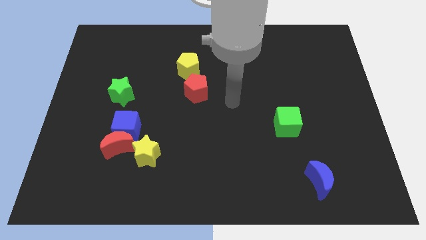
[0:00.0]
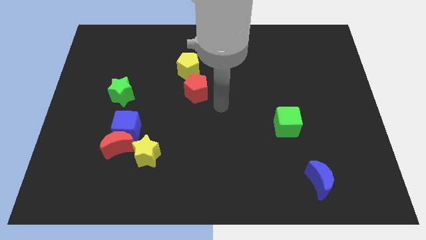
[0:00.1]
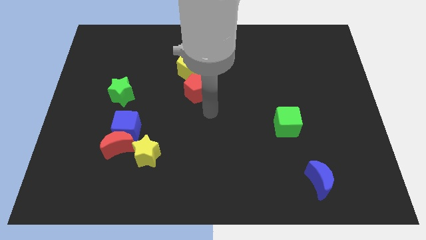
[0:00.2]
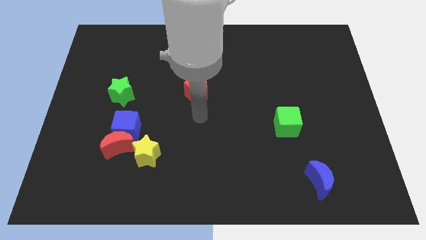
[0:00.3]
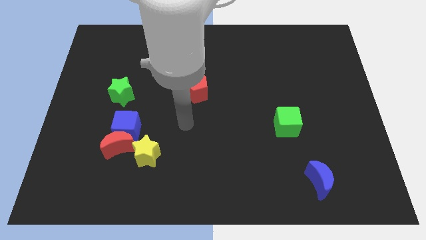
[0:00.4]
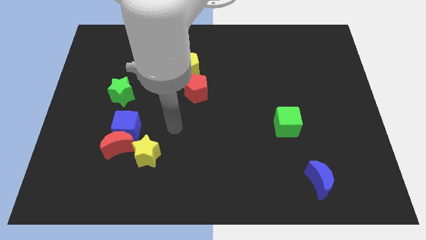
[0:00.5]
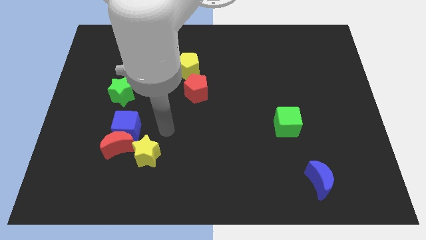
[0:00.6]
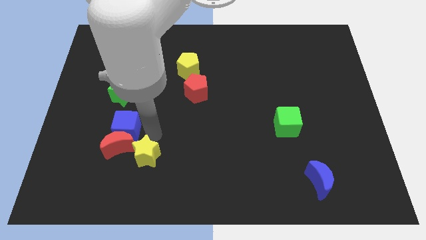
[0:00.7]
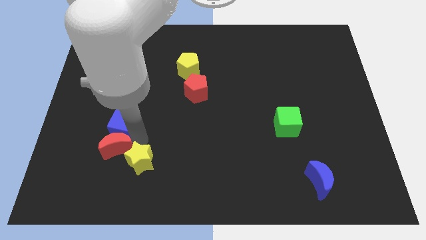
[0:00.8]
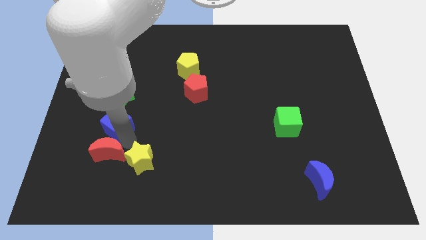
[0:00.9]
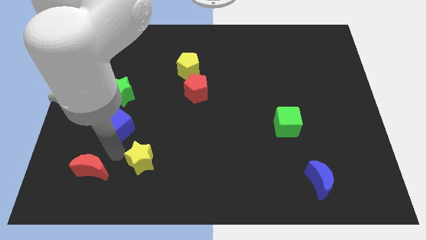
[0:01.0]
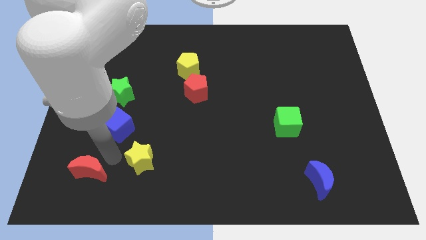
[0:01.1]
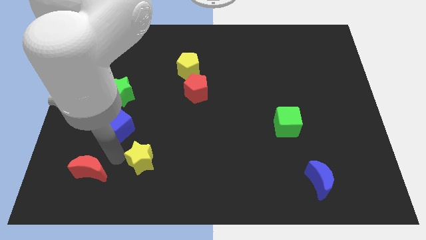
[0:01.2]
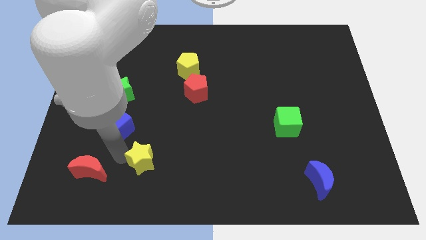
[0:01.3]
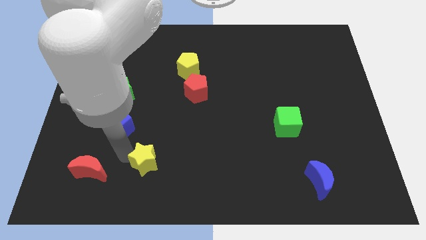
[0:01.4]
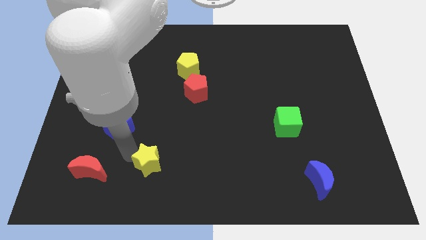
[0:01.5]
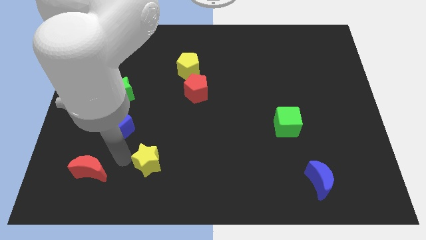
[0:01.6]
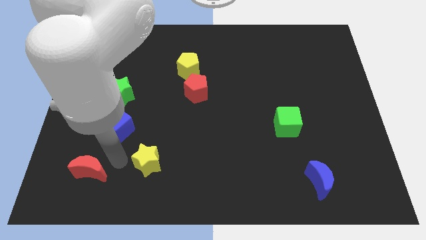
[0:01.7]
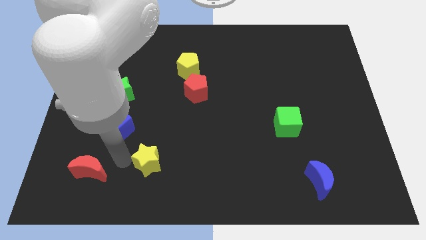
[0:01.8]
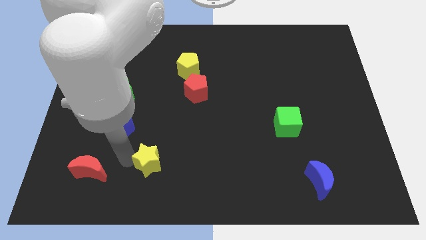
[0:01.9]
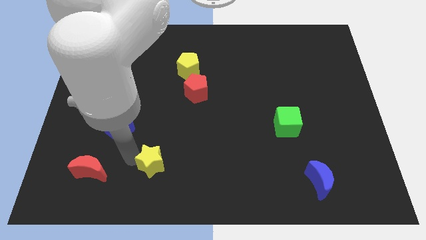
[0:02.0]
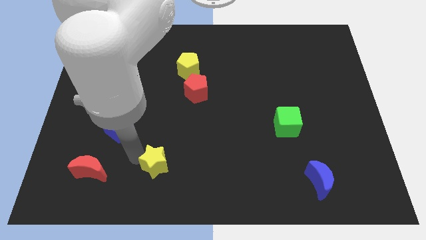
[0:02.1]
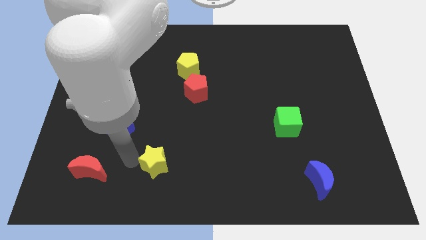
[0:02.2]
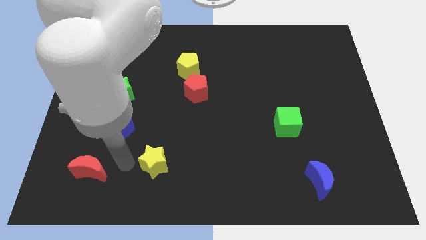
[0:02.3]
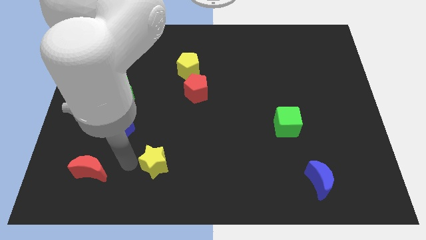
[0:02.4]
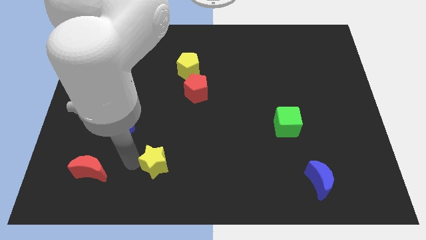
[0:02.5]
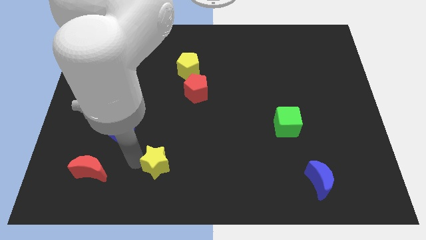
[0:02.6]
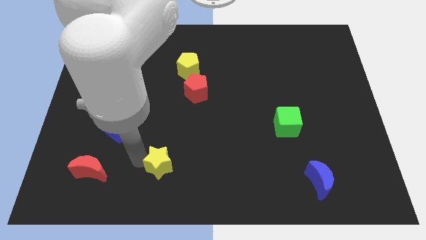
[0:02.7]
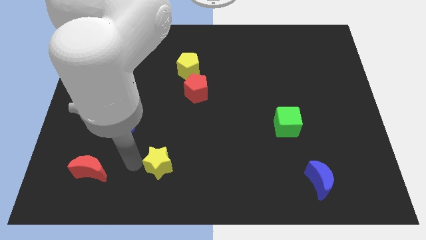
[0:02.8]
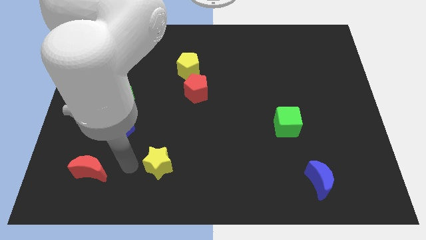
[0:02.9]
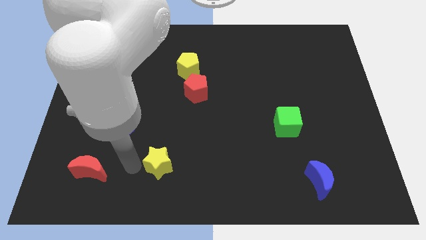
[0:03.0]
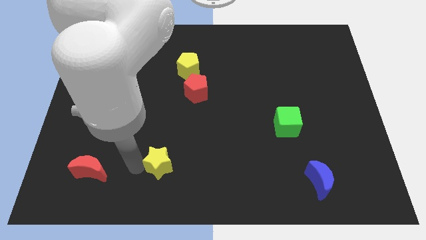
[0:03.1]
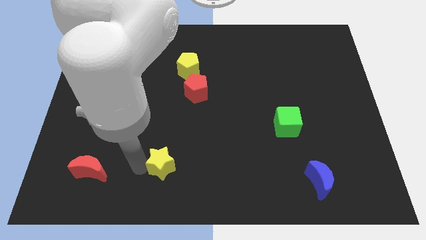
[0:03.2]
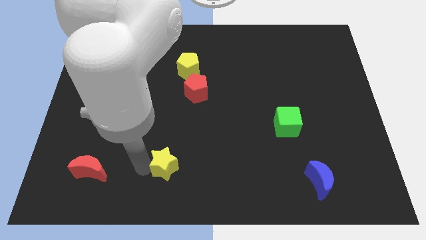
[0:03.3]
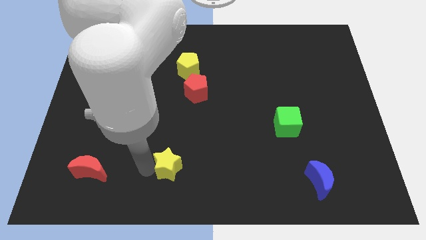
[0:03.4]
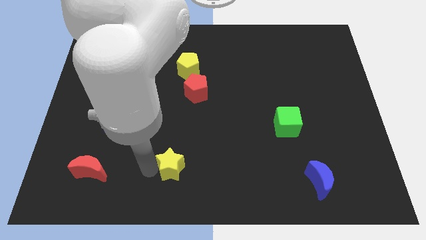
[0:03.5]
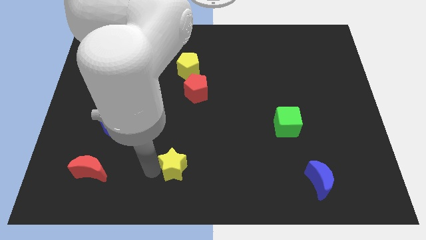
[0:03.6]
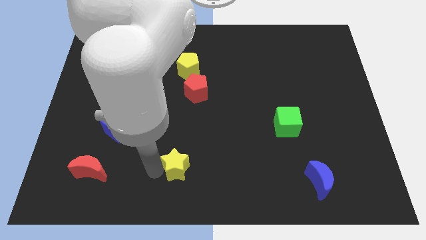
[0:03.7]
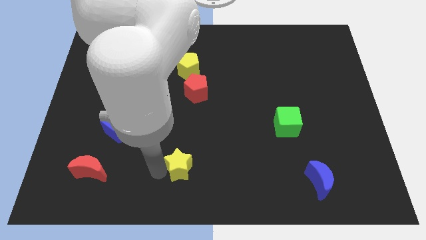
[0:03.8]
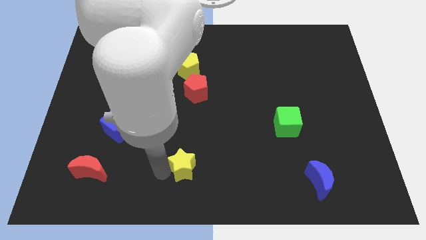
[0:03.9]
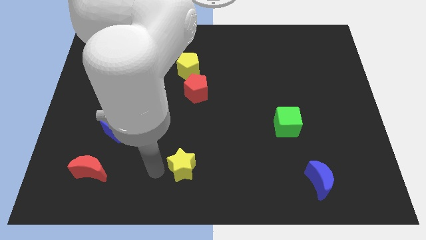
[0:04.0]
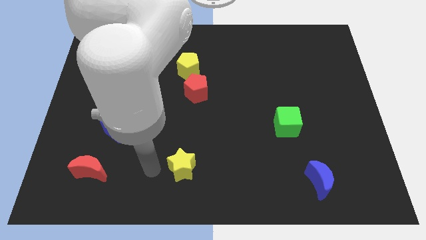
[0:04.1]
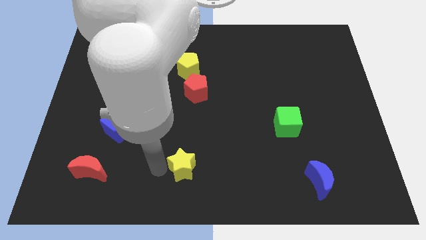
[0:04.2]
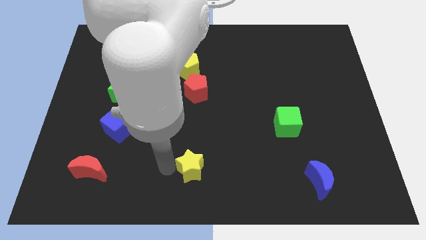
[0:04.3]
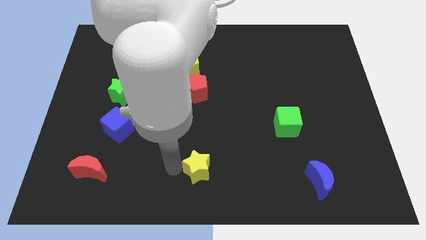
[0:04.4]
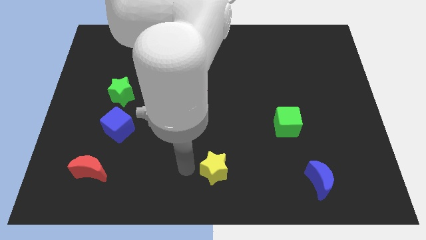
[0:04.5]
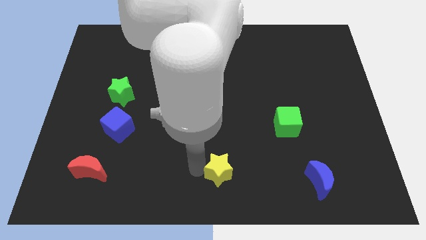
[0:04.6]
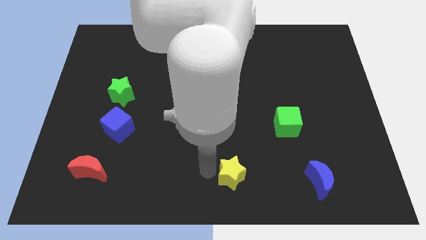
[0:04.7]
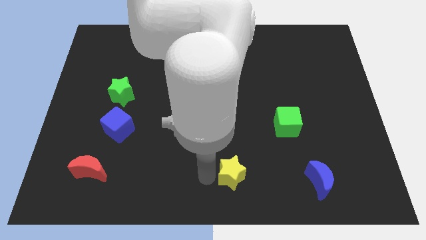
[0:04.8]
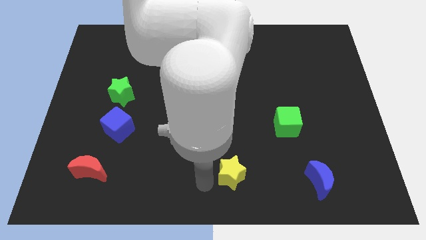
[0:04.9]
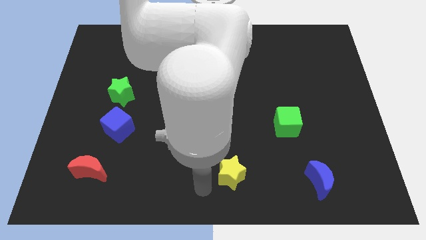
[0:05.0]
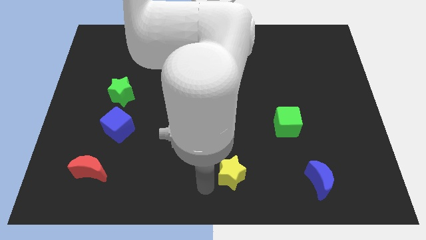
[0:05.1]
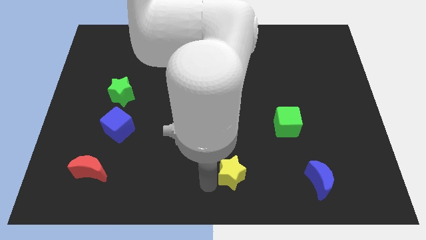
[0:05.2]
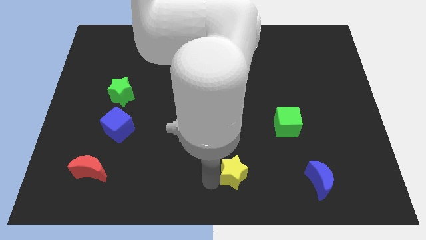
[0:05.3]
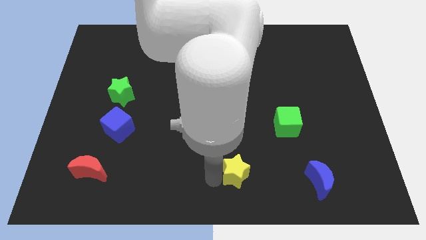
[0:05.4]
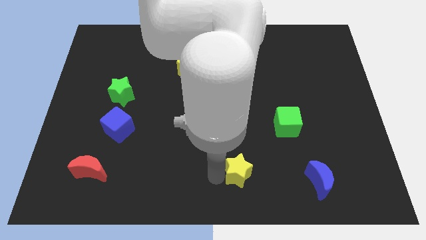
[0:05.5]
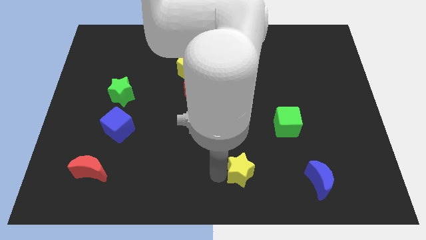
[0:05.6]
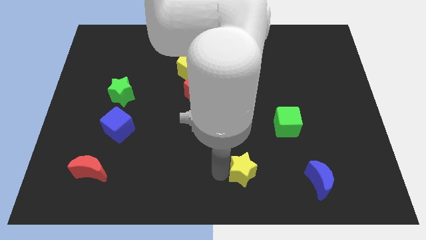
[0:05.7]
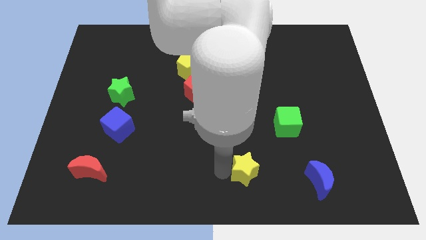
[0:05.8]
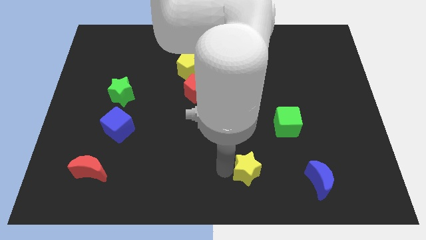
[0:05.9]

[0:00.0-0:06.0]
move the yellow star to the right

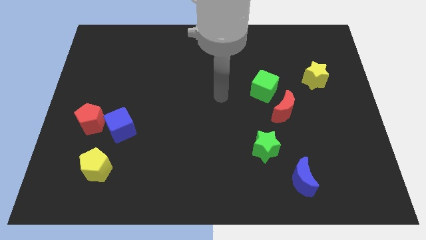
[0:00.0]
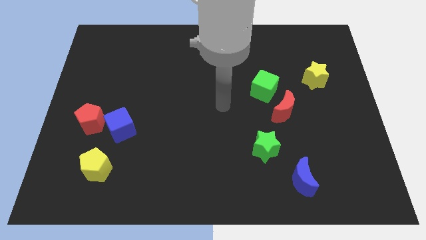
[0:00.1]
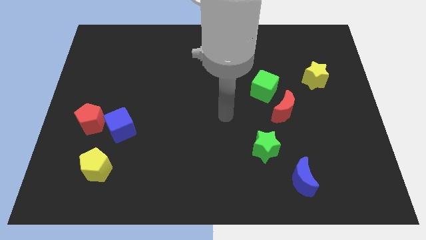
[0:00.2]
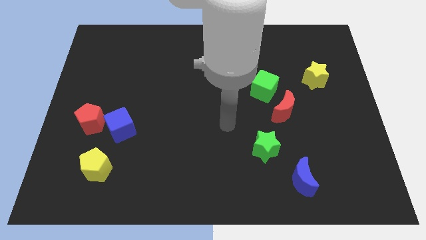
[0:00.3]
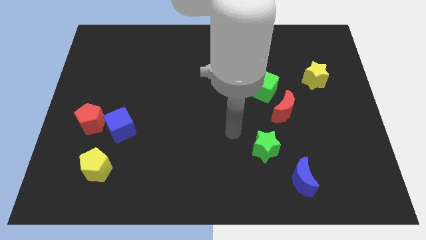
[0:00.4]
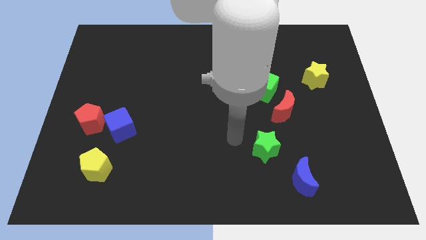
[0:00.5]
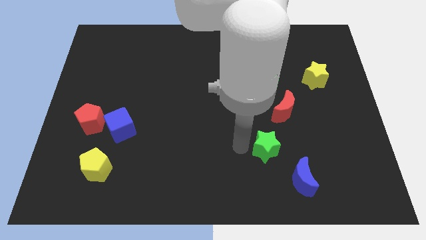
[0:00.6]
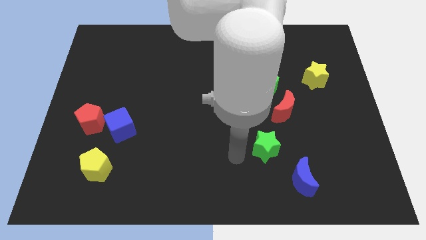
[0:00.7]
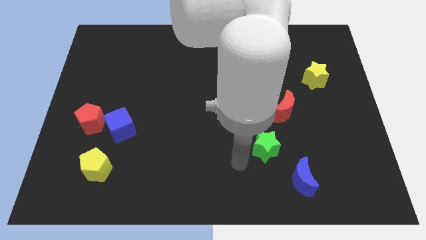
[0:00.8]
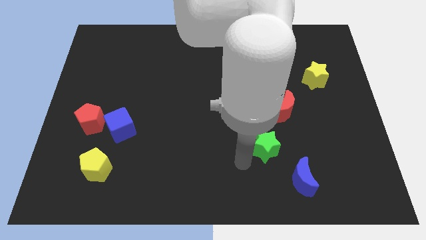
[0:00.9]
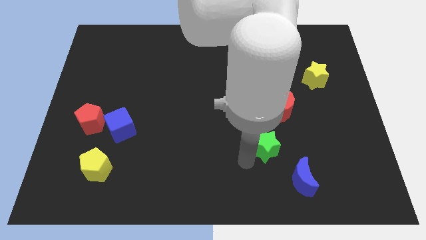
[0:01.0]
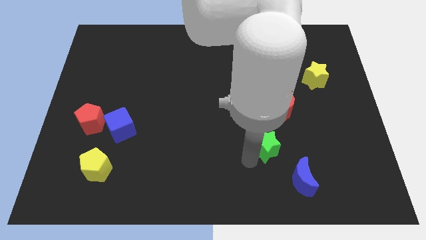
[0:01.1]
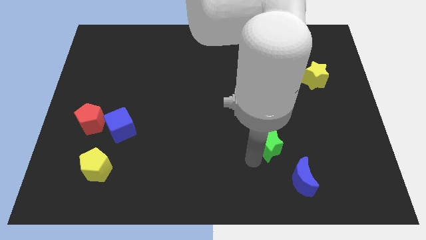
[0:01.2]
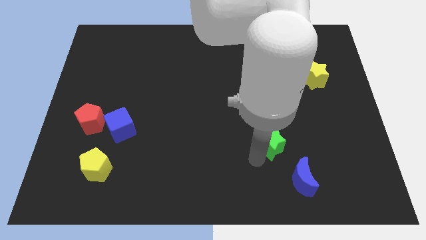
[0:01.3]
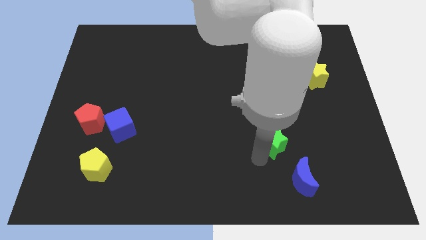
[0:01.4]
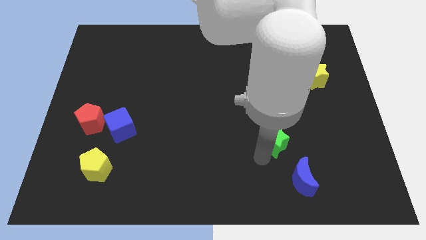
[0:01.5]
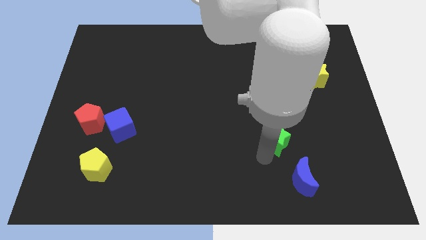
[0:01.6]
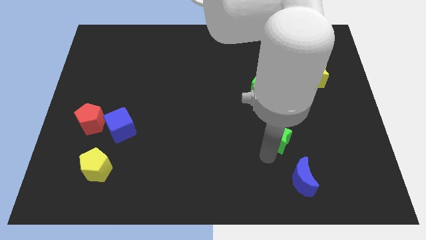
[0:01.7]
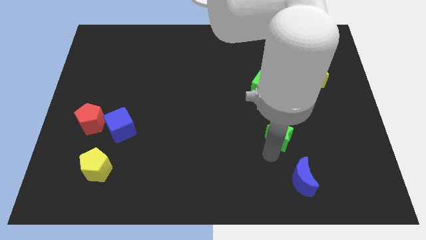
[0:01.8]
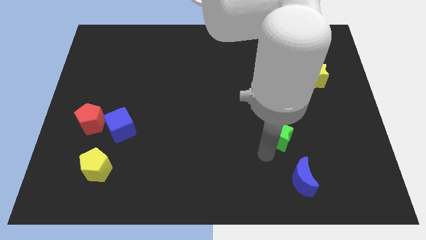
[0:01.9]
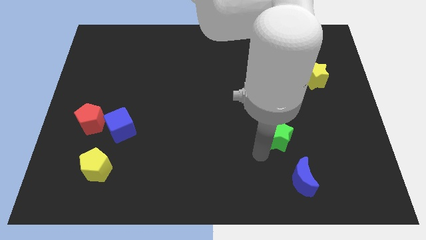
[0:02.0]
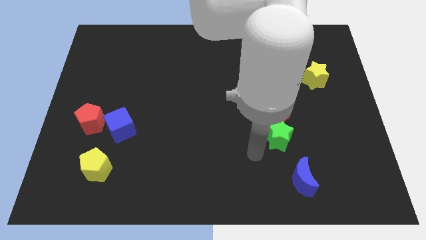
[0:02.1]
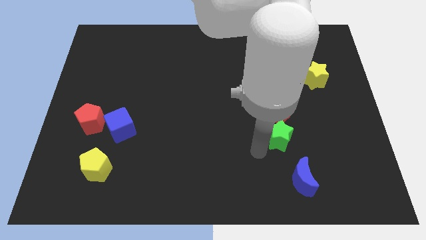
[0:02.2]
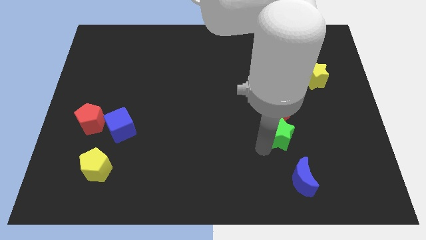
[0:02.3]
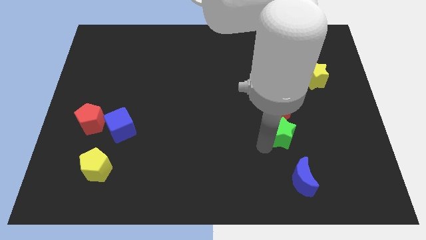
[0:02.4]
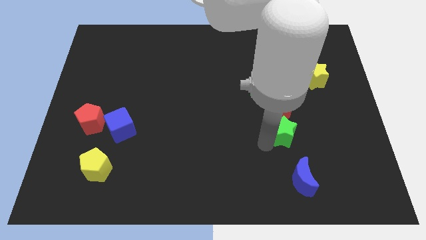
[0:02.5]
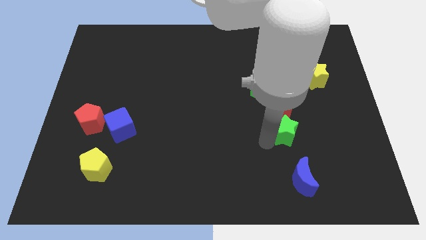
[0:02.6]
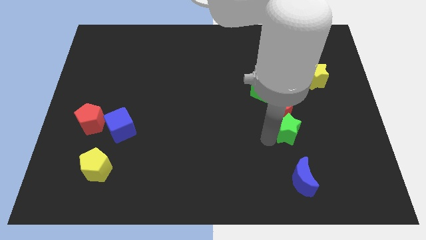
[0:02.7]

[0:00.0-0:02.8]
move the green star somewhat up and then to the right
